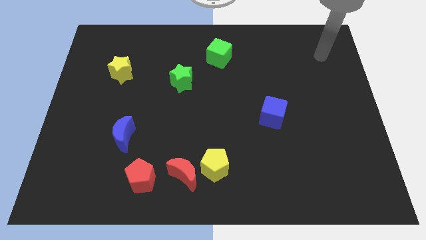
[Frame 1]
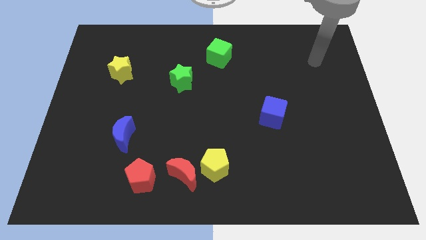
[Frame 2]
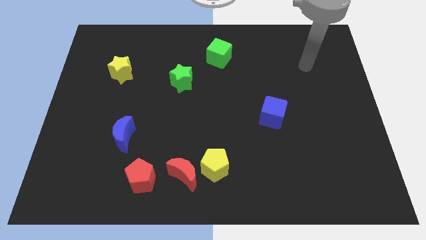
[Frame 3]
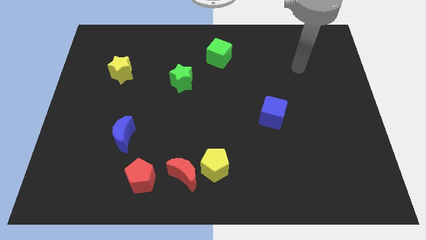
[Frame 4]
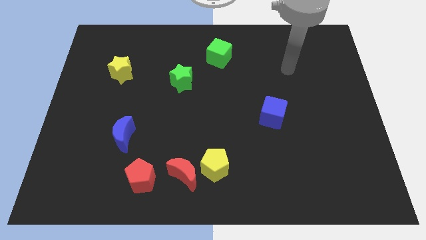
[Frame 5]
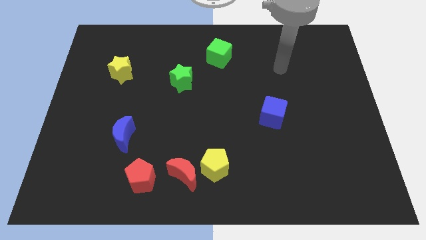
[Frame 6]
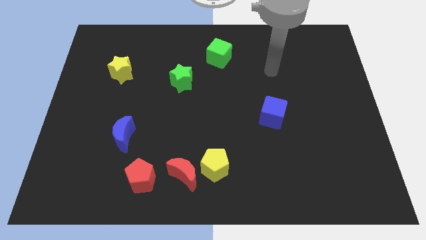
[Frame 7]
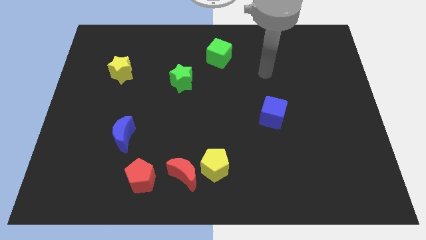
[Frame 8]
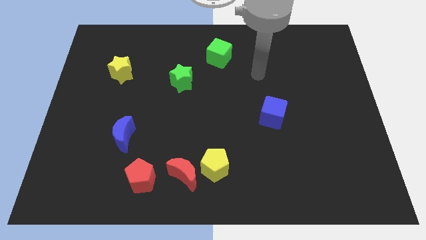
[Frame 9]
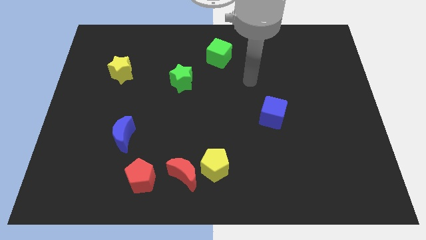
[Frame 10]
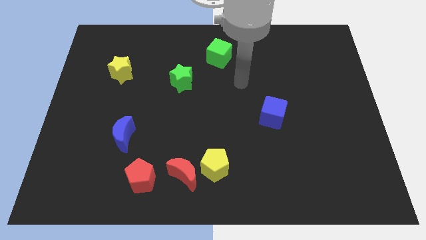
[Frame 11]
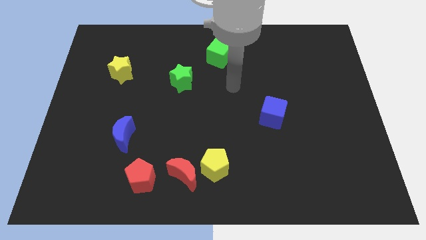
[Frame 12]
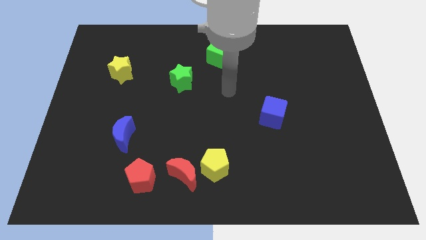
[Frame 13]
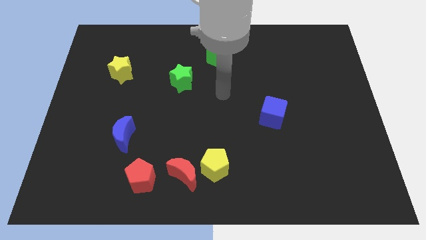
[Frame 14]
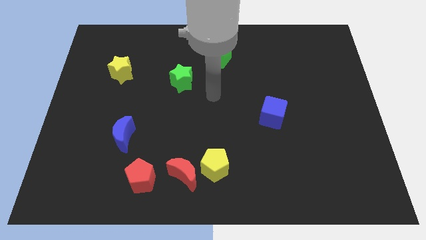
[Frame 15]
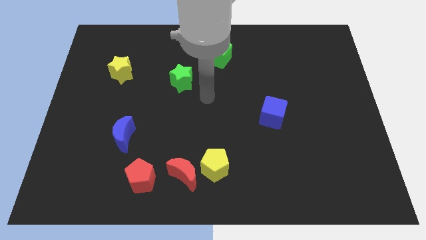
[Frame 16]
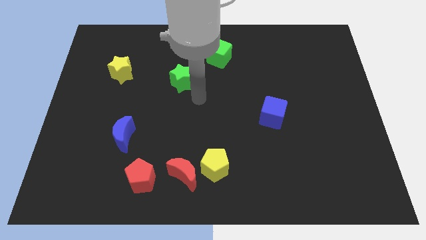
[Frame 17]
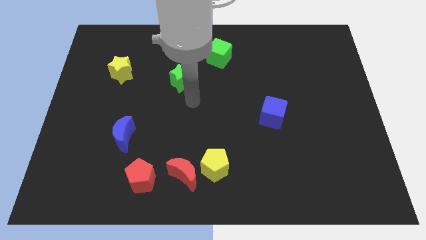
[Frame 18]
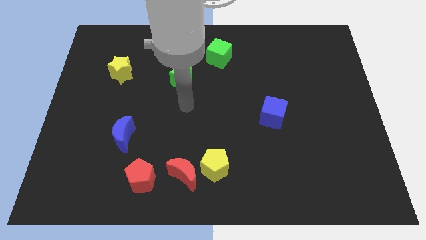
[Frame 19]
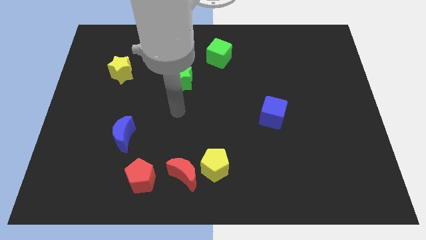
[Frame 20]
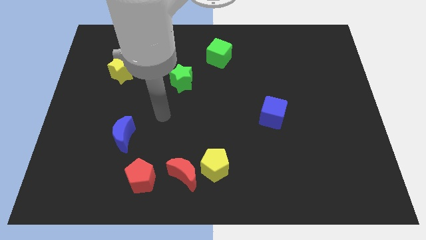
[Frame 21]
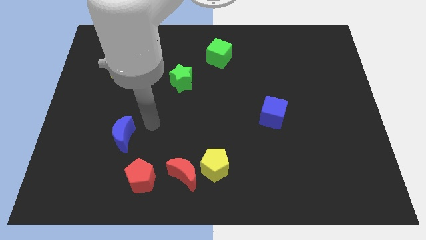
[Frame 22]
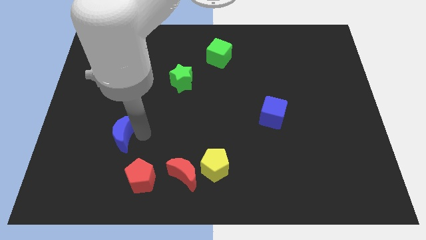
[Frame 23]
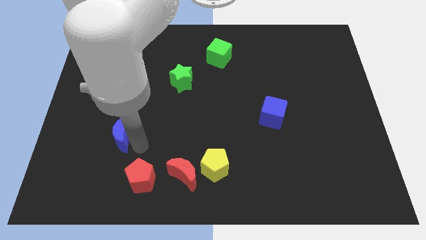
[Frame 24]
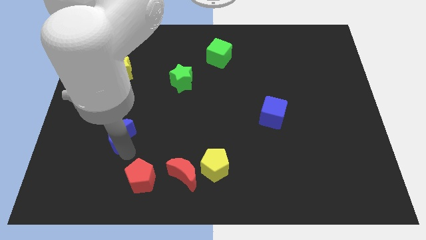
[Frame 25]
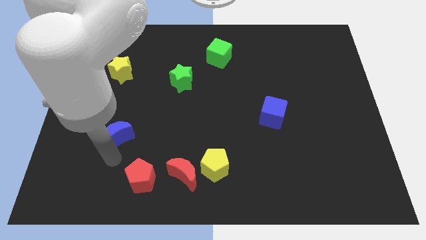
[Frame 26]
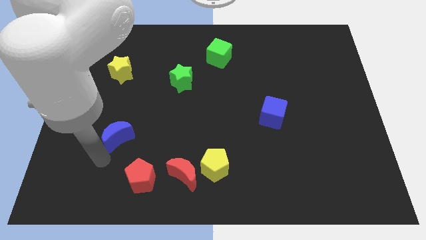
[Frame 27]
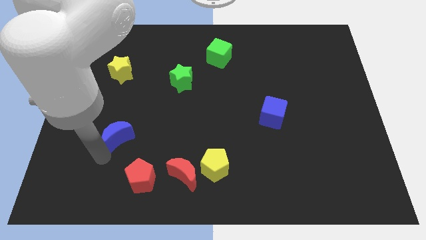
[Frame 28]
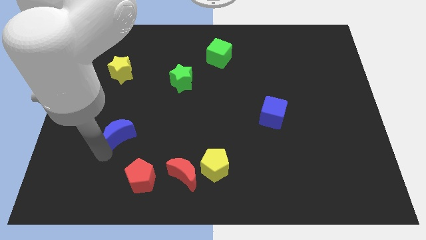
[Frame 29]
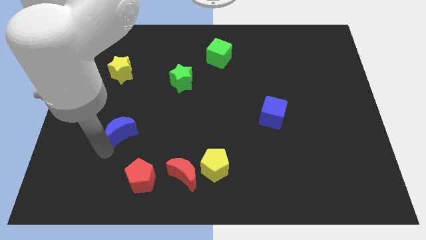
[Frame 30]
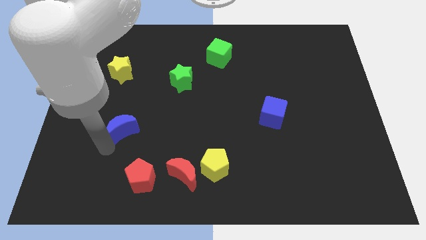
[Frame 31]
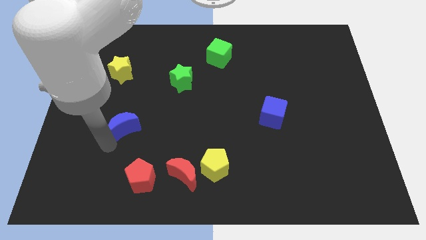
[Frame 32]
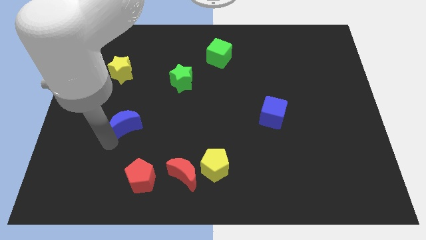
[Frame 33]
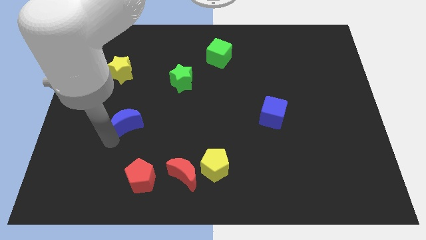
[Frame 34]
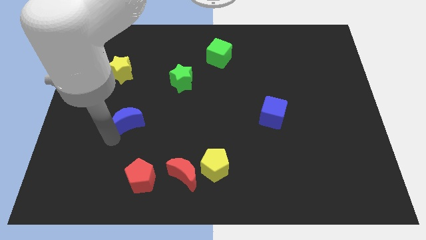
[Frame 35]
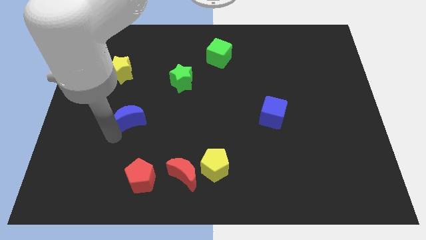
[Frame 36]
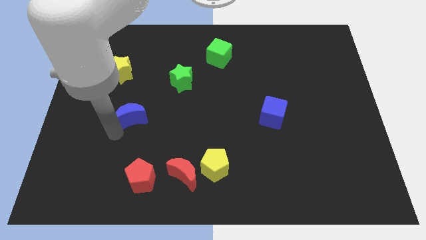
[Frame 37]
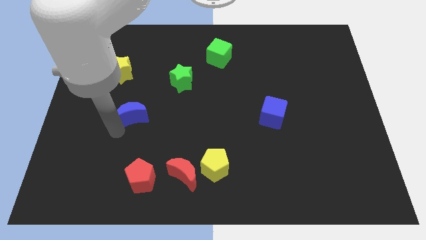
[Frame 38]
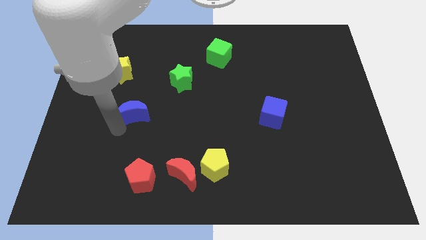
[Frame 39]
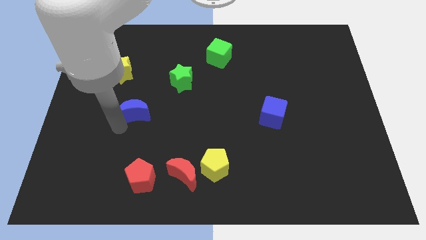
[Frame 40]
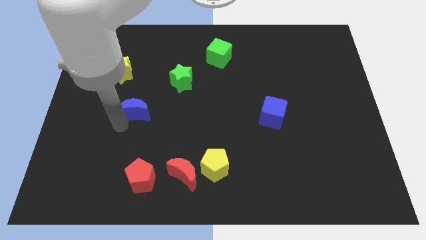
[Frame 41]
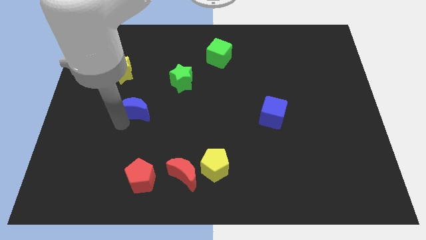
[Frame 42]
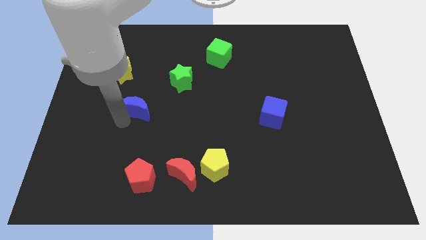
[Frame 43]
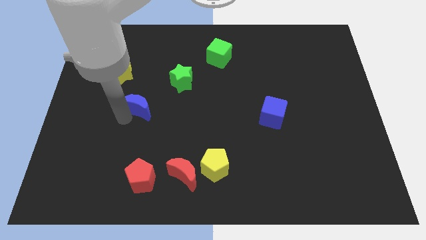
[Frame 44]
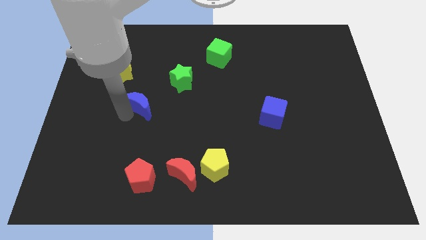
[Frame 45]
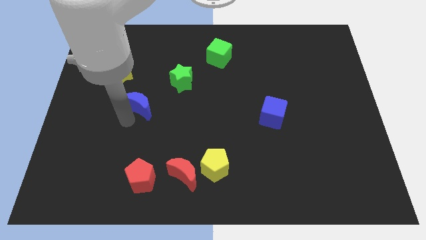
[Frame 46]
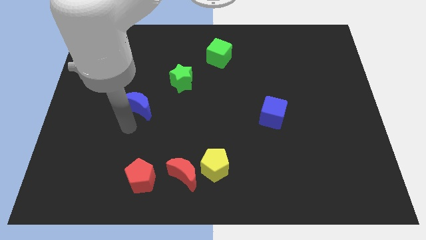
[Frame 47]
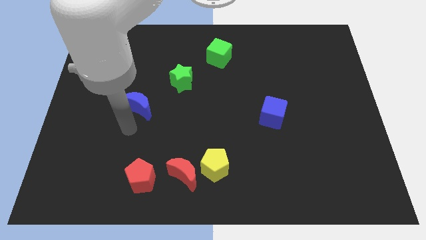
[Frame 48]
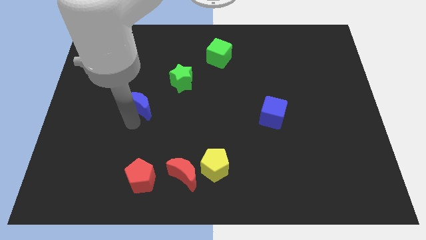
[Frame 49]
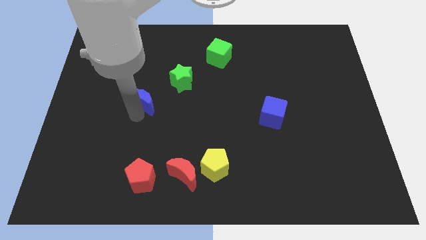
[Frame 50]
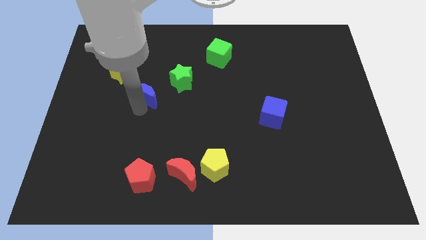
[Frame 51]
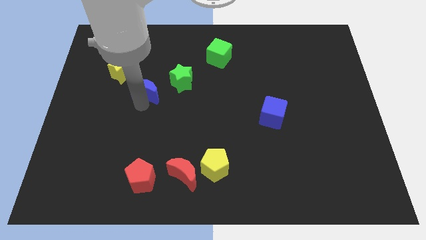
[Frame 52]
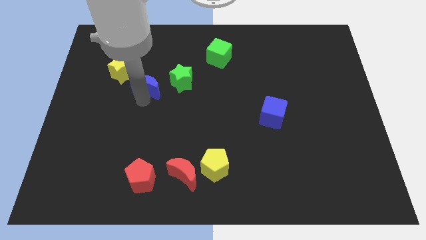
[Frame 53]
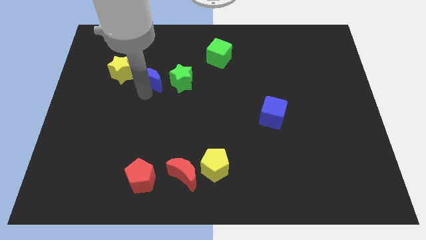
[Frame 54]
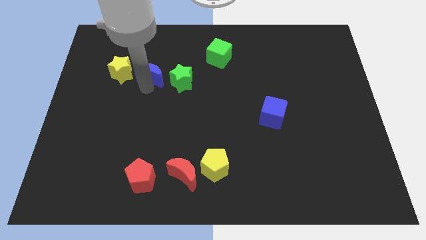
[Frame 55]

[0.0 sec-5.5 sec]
slide the blue moon to the top left of the green star

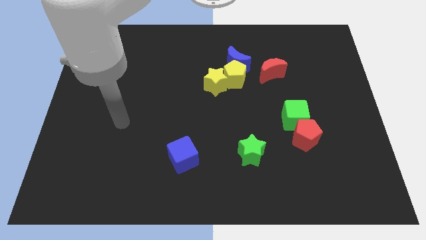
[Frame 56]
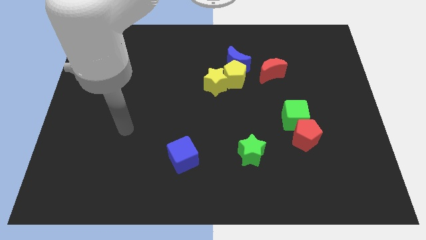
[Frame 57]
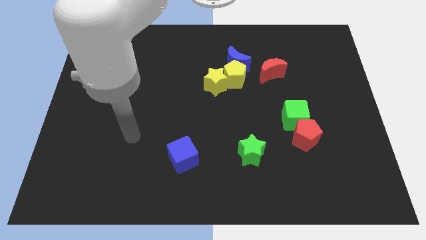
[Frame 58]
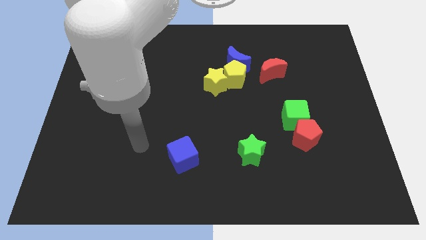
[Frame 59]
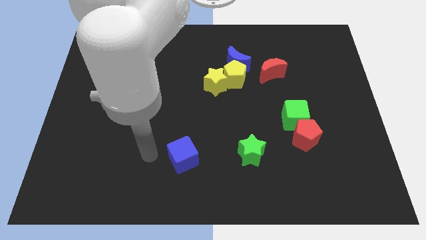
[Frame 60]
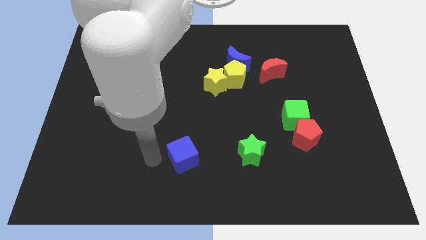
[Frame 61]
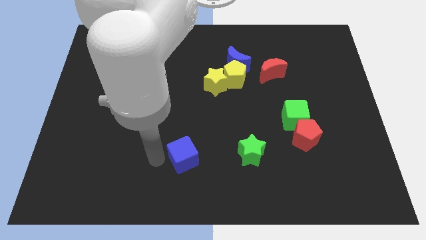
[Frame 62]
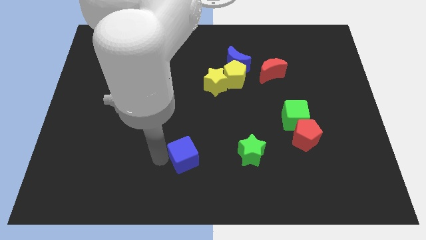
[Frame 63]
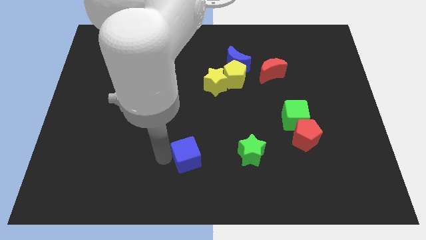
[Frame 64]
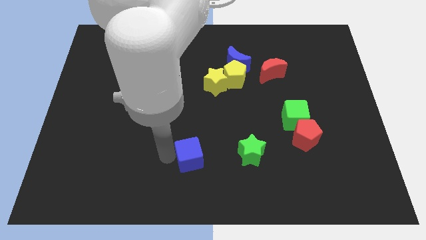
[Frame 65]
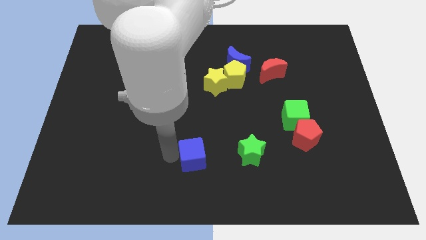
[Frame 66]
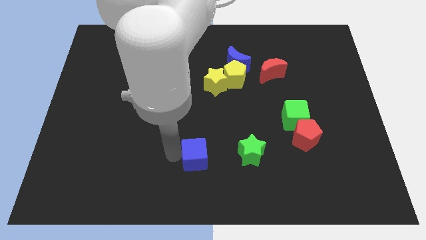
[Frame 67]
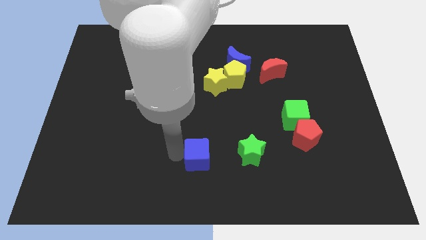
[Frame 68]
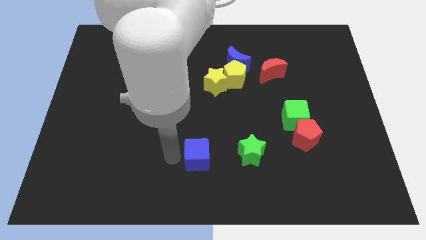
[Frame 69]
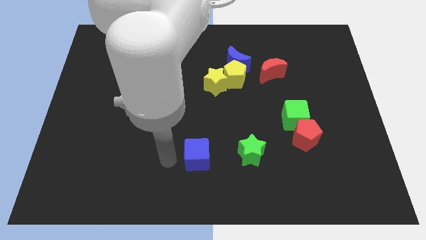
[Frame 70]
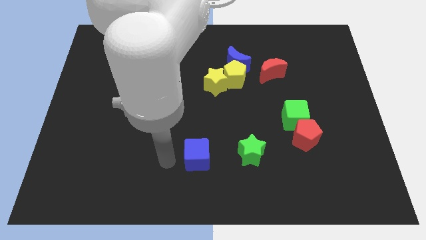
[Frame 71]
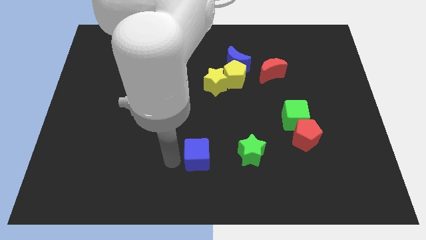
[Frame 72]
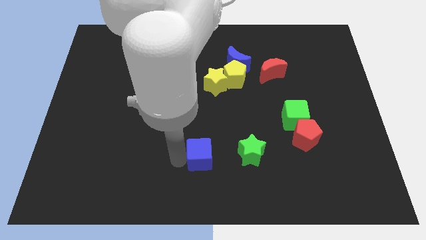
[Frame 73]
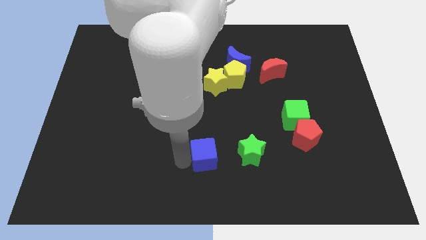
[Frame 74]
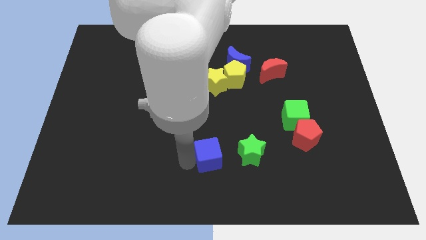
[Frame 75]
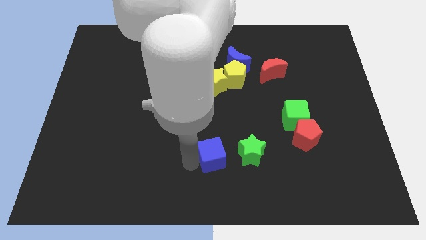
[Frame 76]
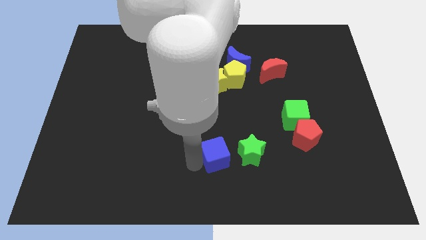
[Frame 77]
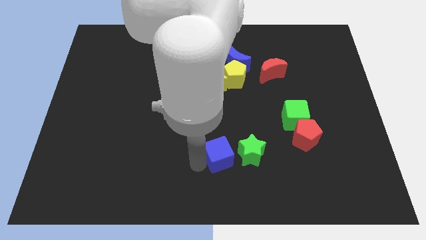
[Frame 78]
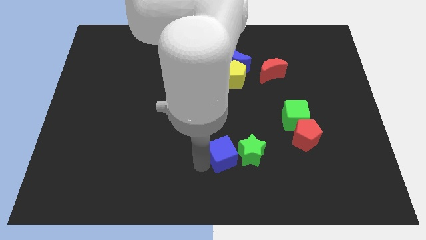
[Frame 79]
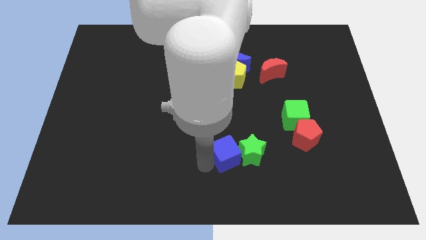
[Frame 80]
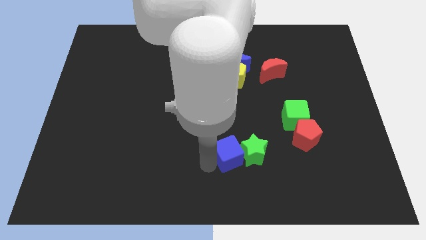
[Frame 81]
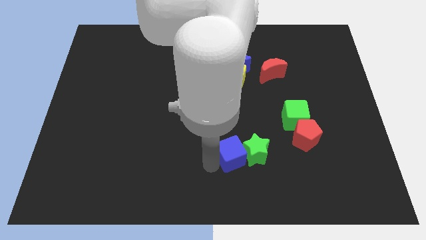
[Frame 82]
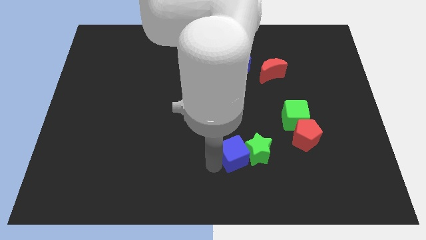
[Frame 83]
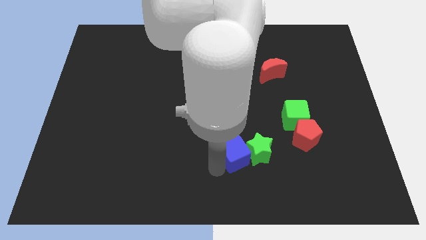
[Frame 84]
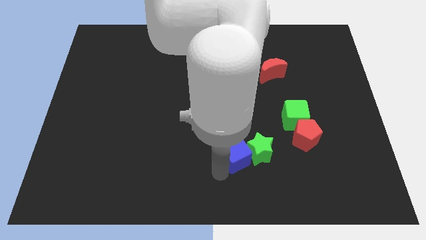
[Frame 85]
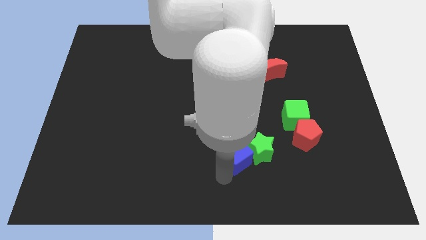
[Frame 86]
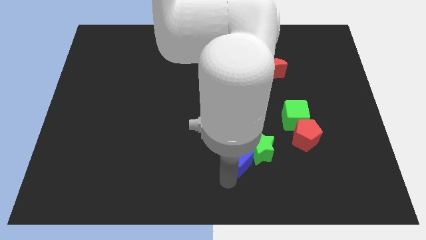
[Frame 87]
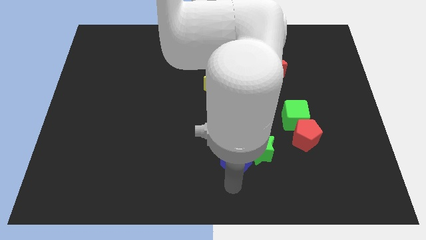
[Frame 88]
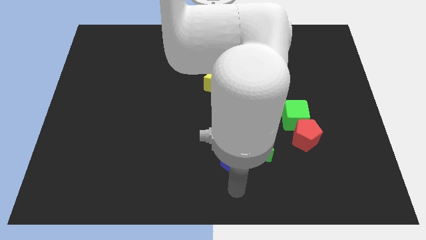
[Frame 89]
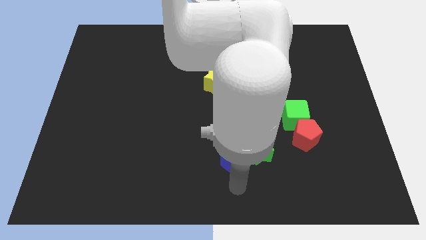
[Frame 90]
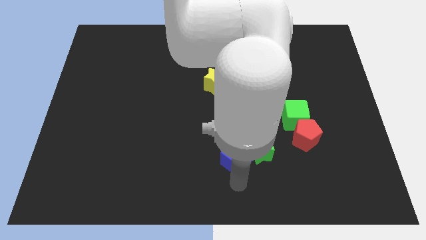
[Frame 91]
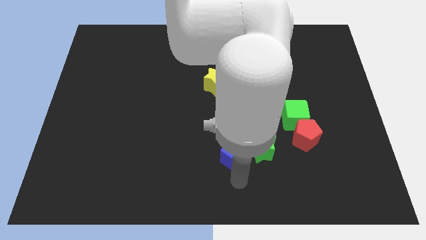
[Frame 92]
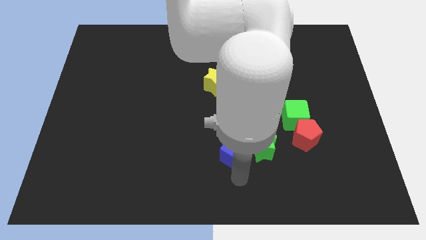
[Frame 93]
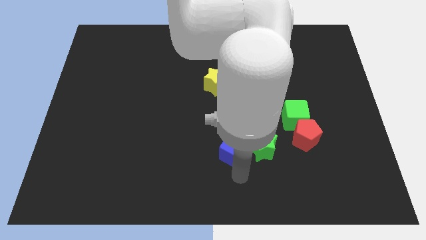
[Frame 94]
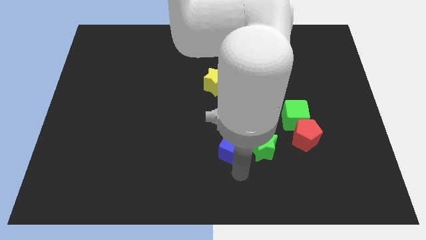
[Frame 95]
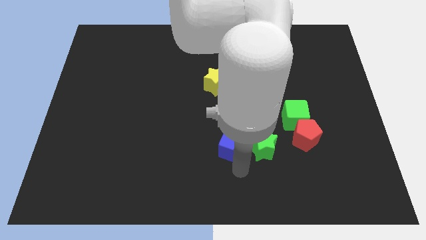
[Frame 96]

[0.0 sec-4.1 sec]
put the blue cube just left of the red pentagon
